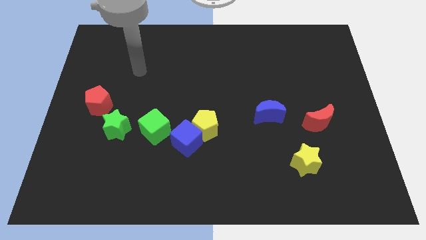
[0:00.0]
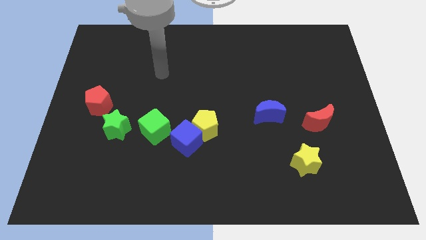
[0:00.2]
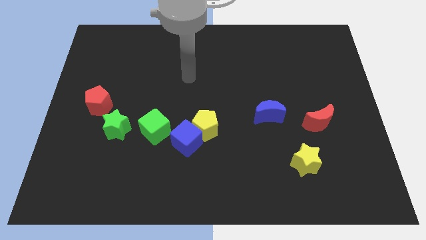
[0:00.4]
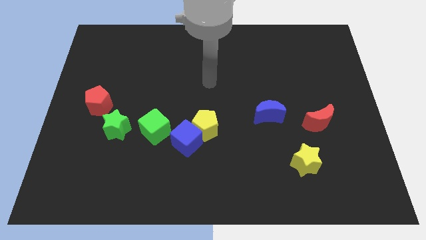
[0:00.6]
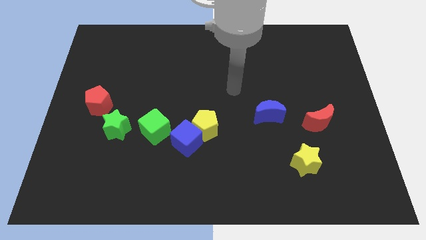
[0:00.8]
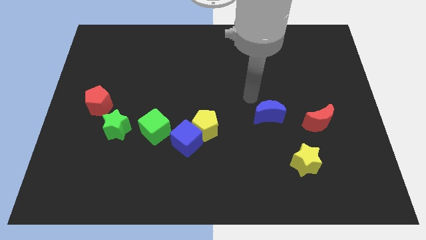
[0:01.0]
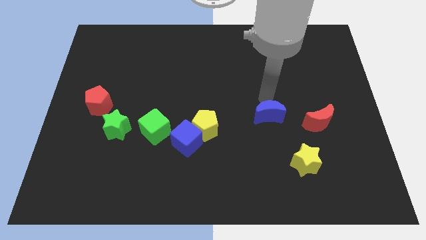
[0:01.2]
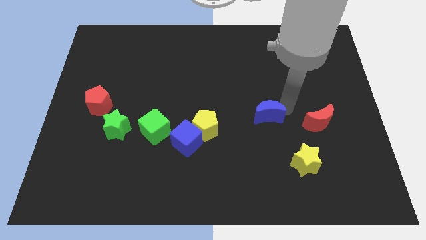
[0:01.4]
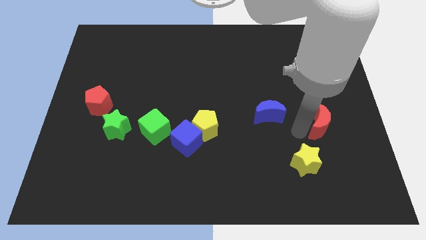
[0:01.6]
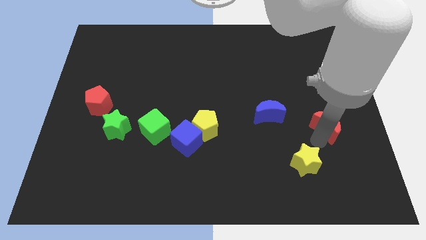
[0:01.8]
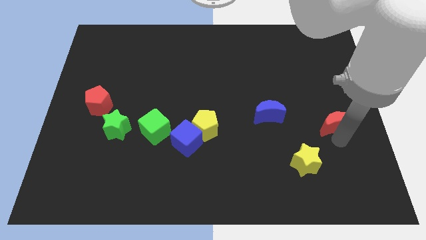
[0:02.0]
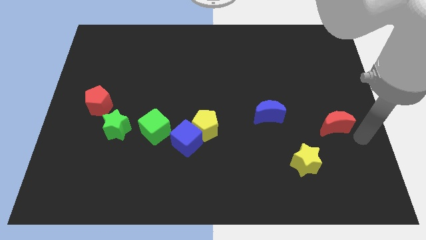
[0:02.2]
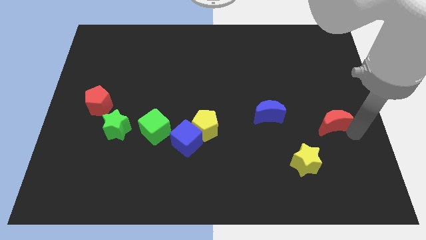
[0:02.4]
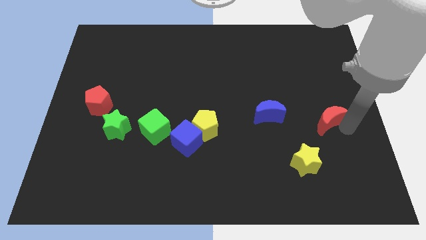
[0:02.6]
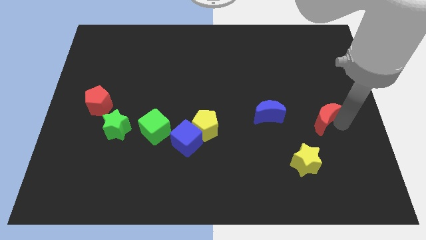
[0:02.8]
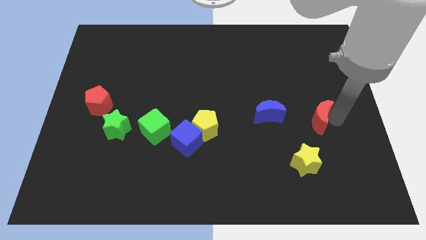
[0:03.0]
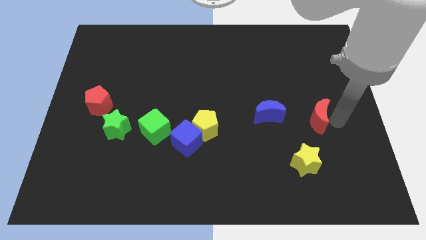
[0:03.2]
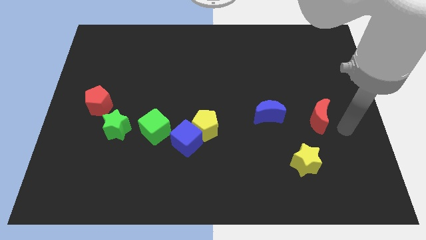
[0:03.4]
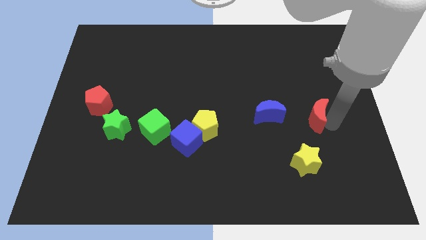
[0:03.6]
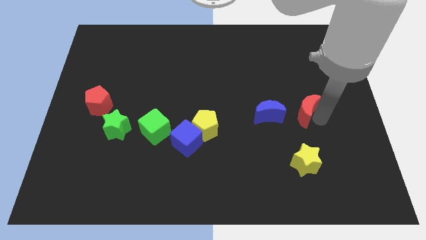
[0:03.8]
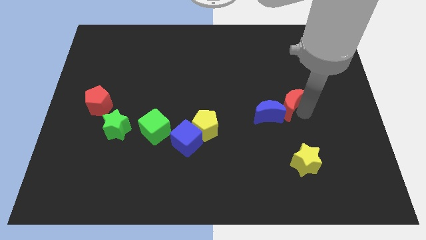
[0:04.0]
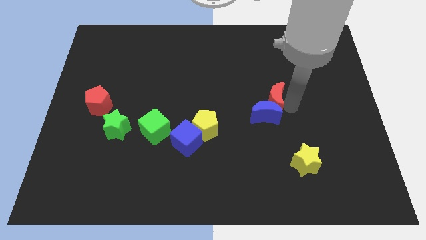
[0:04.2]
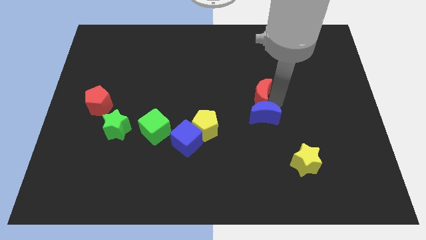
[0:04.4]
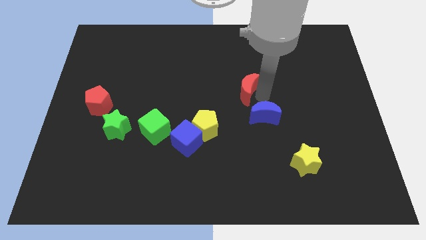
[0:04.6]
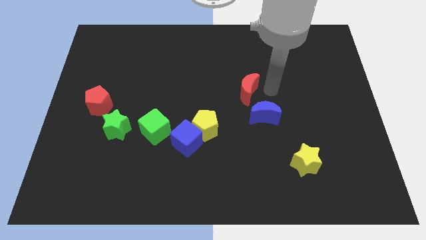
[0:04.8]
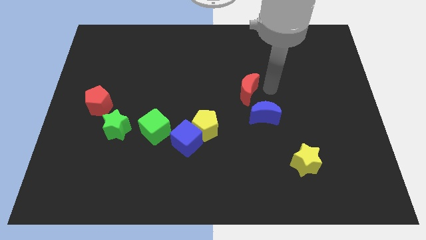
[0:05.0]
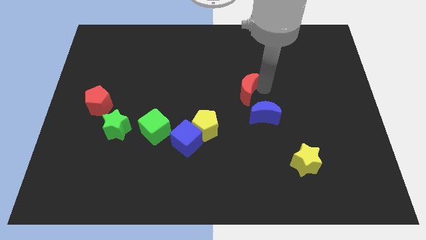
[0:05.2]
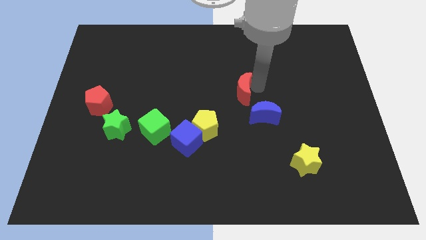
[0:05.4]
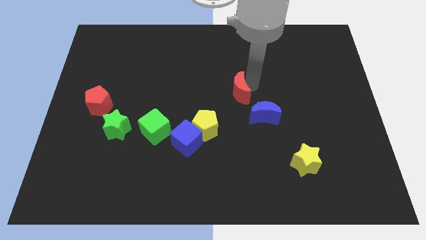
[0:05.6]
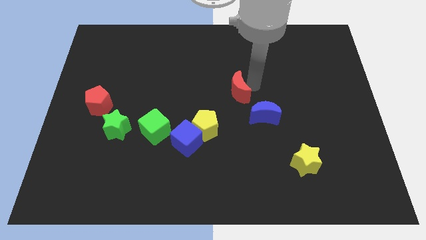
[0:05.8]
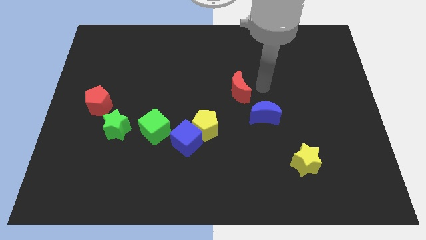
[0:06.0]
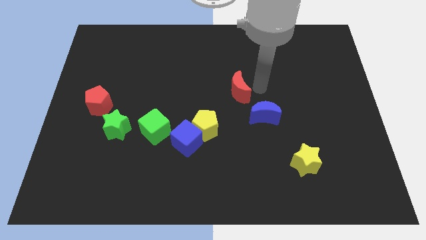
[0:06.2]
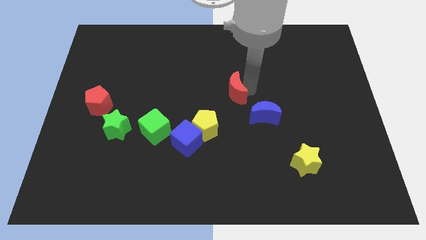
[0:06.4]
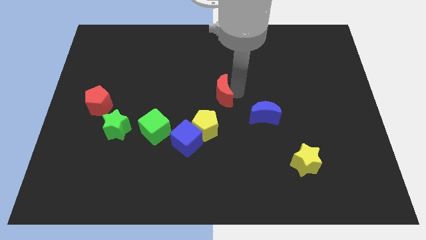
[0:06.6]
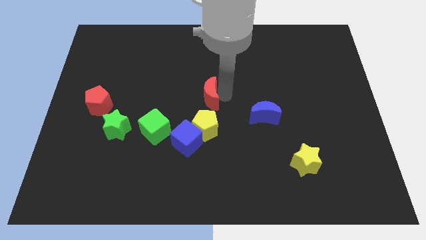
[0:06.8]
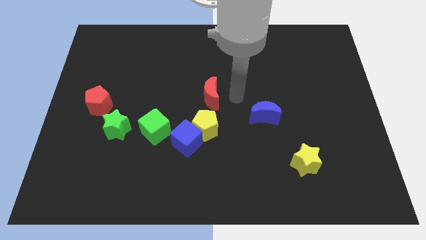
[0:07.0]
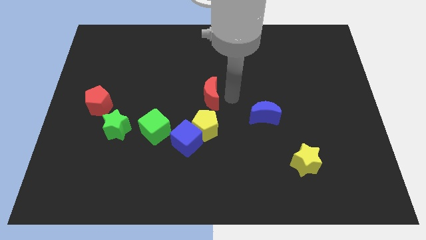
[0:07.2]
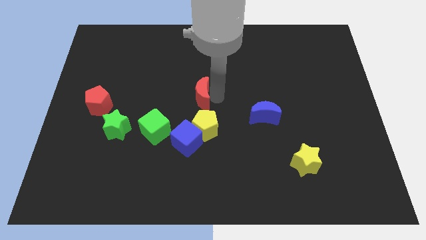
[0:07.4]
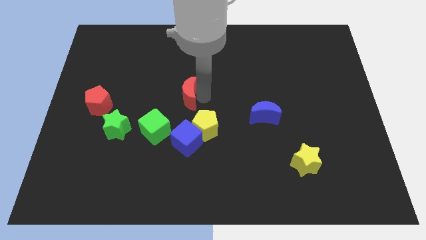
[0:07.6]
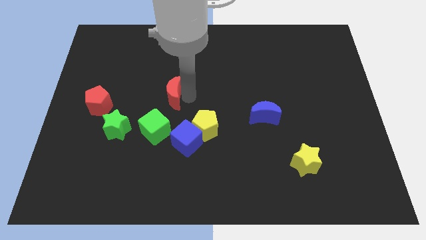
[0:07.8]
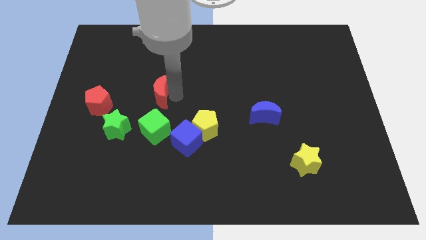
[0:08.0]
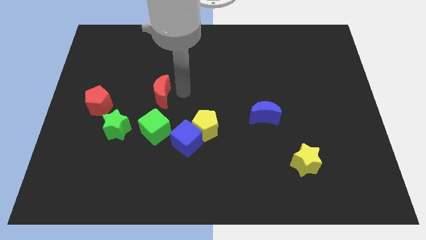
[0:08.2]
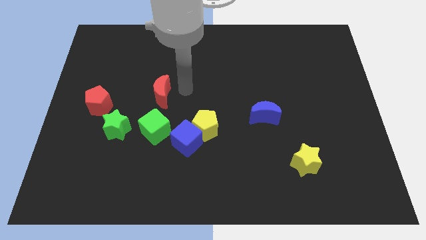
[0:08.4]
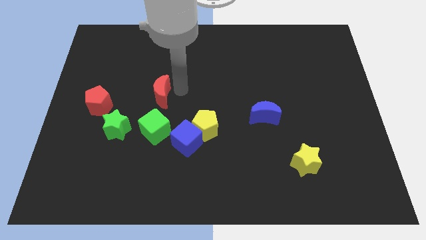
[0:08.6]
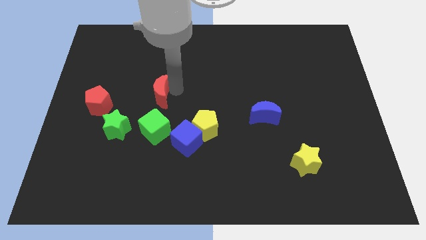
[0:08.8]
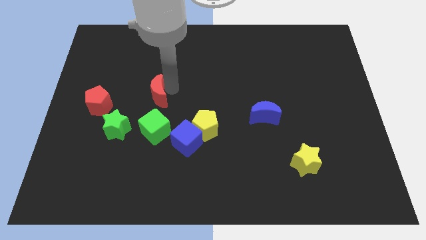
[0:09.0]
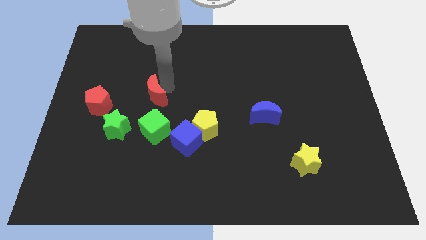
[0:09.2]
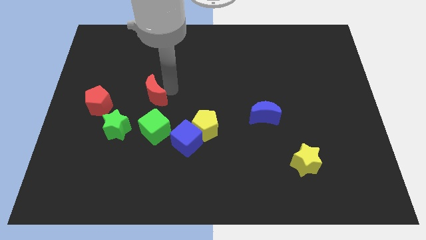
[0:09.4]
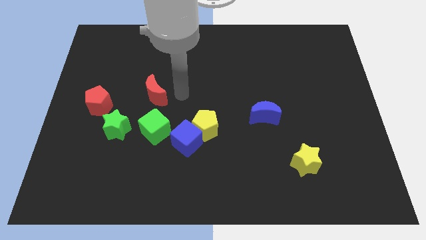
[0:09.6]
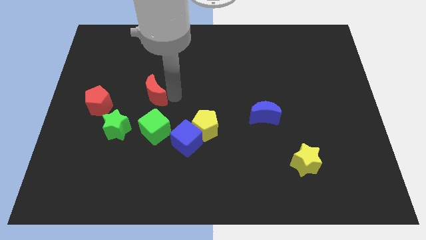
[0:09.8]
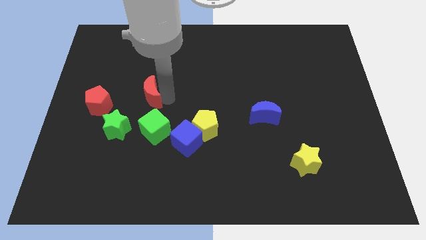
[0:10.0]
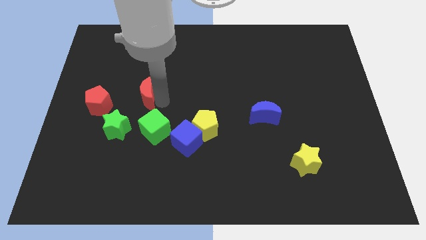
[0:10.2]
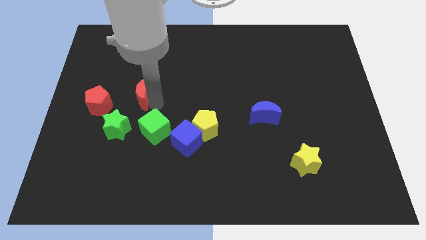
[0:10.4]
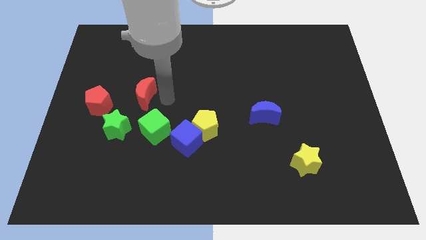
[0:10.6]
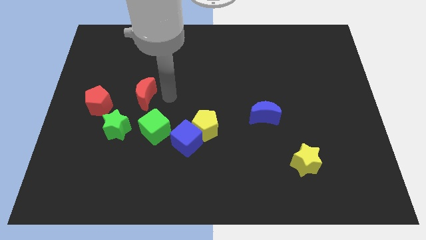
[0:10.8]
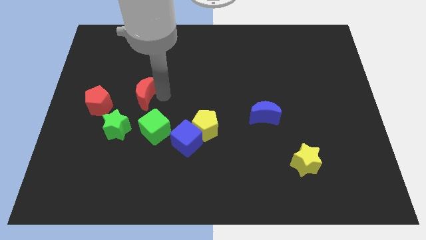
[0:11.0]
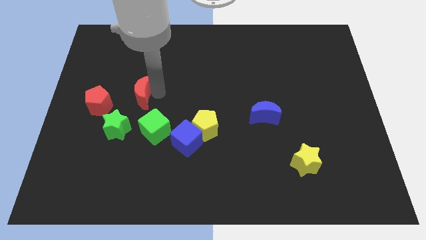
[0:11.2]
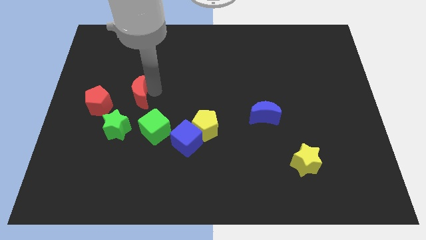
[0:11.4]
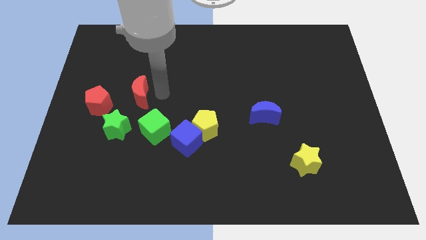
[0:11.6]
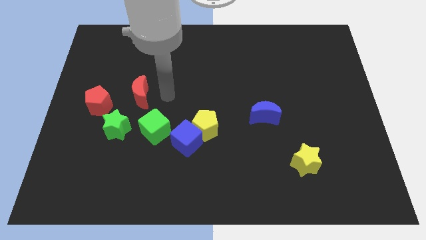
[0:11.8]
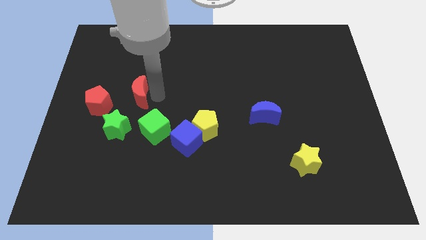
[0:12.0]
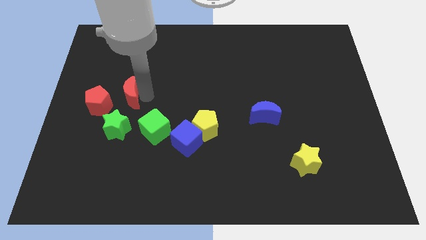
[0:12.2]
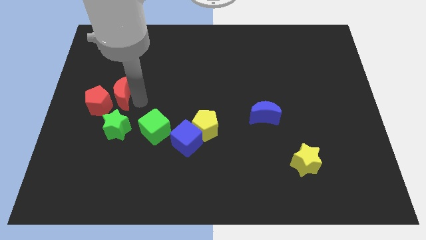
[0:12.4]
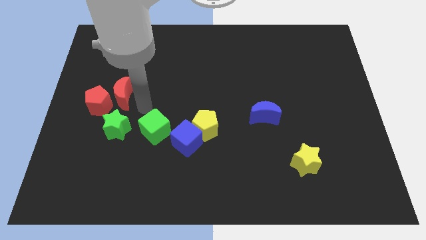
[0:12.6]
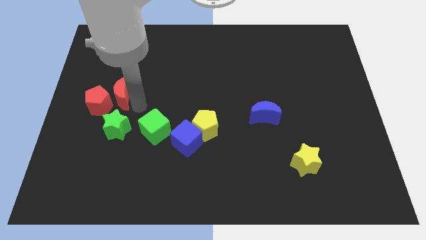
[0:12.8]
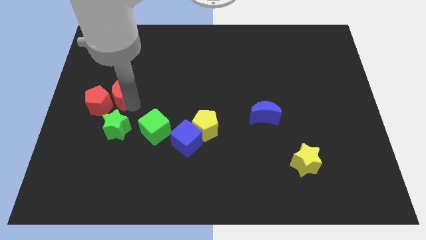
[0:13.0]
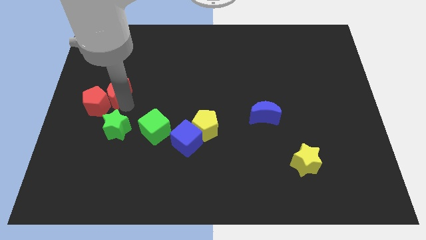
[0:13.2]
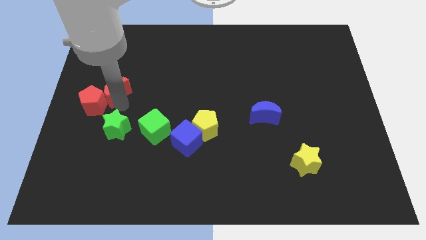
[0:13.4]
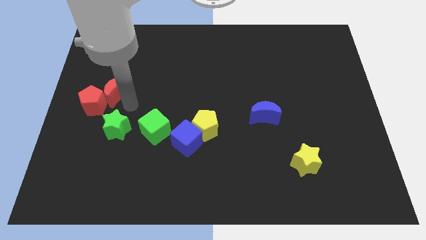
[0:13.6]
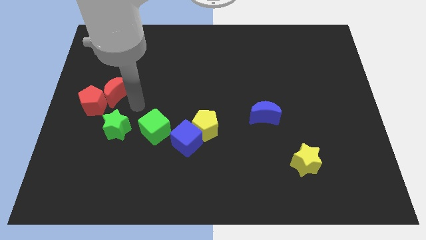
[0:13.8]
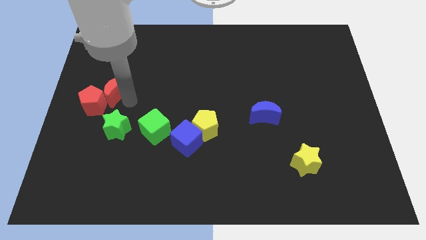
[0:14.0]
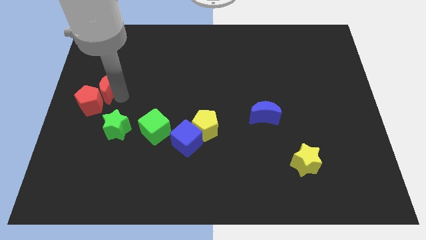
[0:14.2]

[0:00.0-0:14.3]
slide the red moon to the left side of the board
